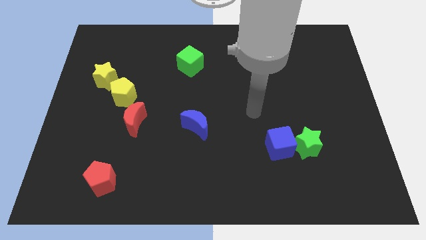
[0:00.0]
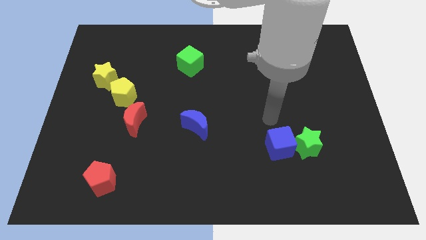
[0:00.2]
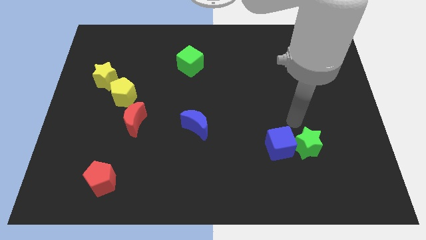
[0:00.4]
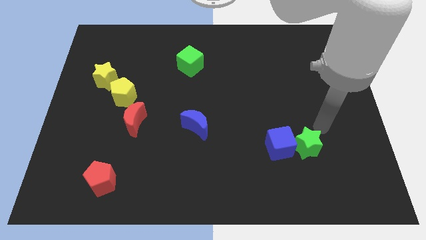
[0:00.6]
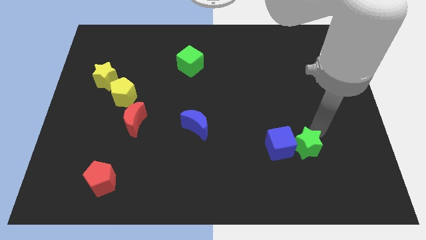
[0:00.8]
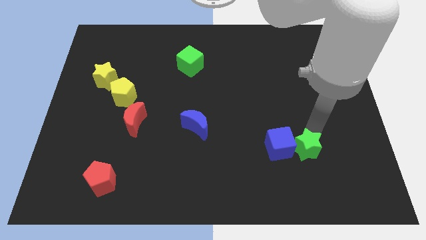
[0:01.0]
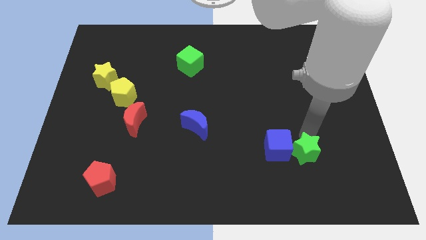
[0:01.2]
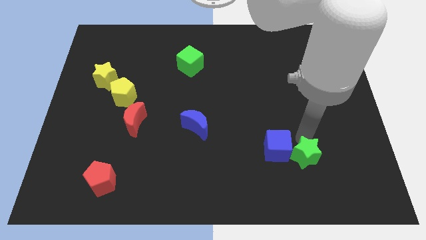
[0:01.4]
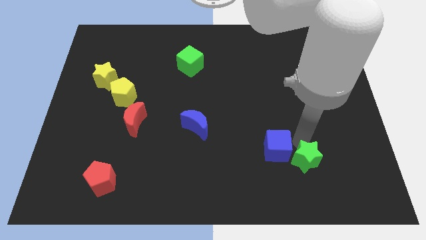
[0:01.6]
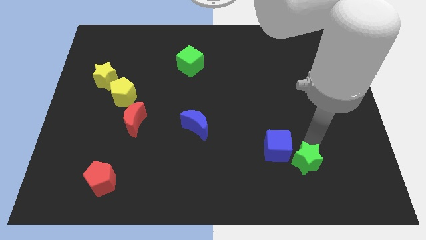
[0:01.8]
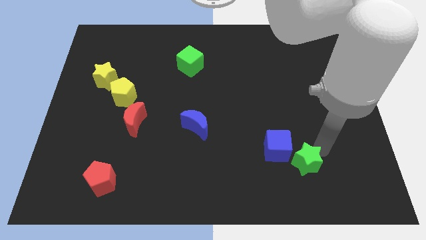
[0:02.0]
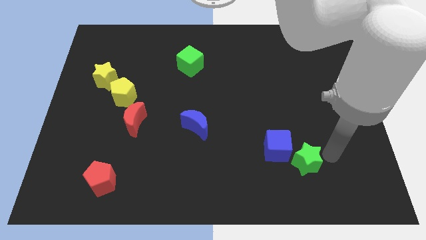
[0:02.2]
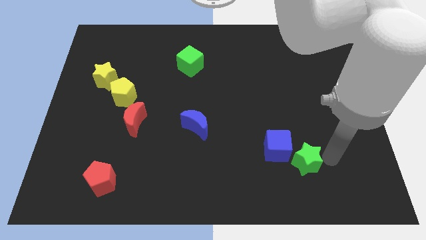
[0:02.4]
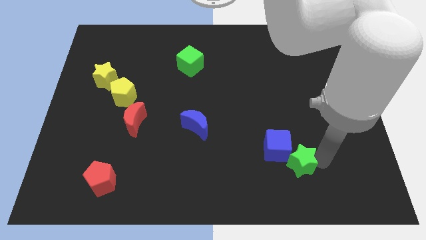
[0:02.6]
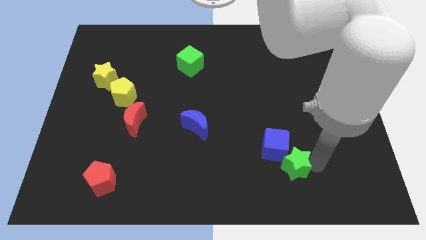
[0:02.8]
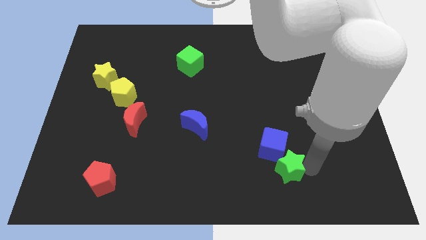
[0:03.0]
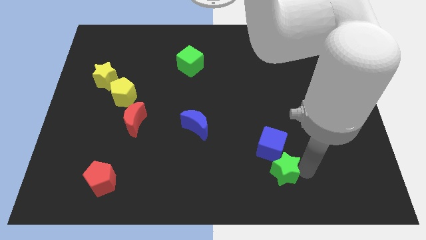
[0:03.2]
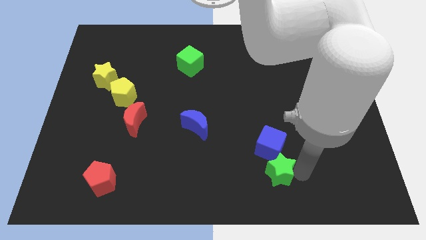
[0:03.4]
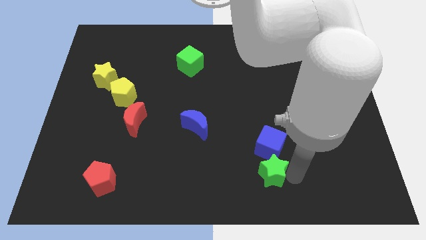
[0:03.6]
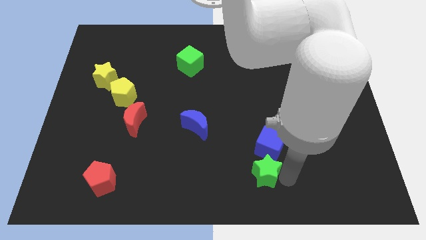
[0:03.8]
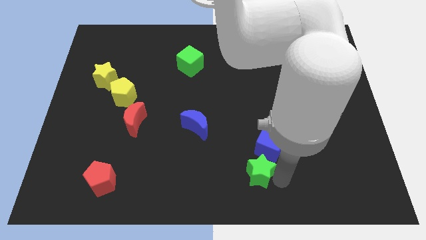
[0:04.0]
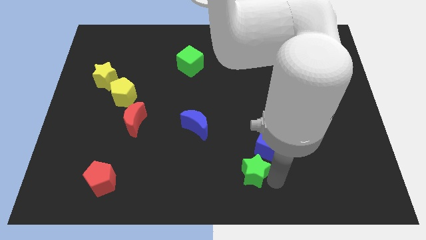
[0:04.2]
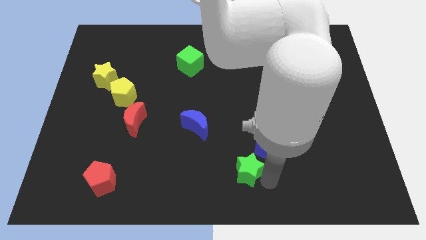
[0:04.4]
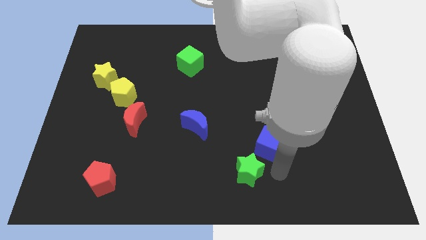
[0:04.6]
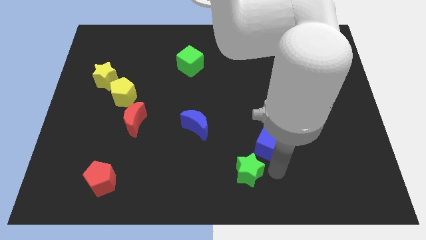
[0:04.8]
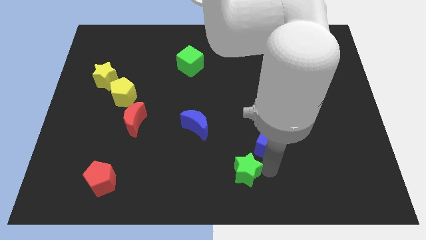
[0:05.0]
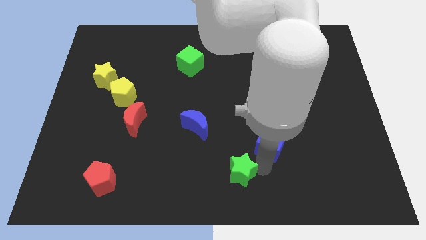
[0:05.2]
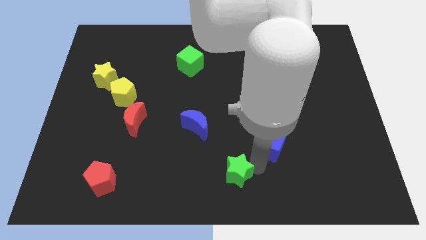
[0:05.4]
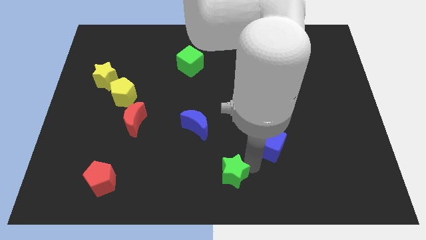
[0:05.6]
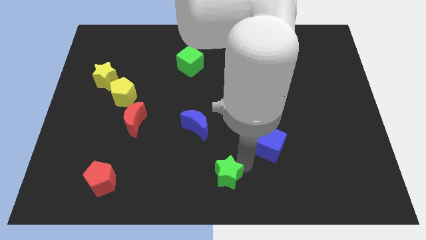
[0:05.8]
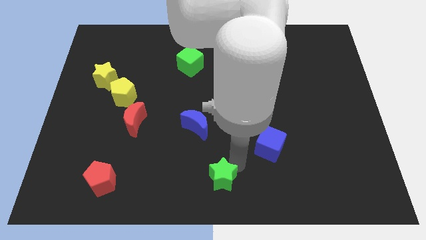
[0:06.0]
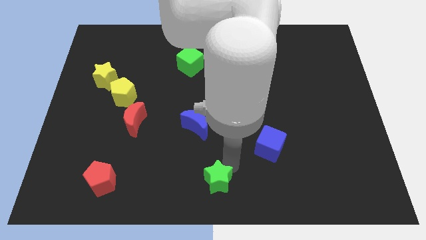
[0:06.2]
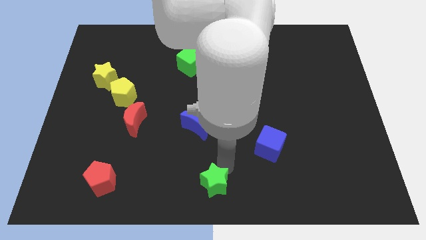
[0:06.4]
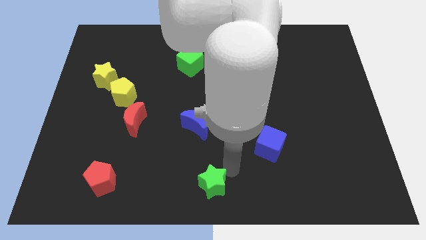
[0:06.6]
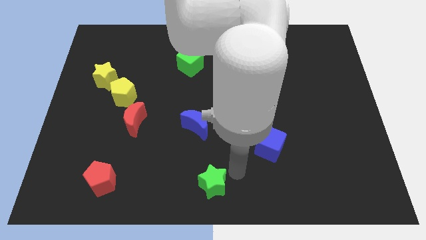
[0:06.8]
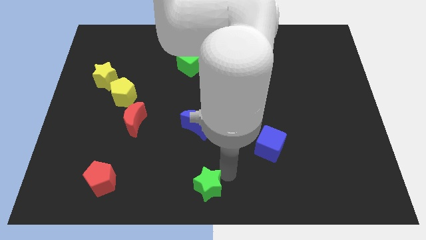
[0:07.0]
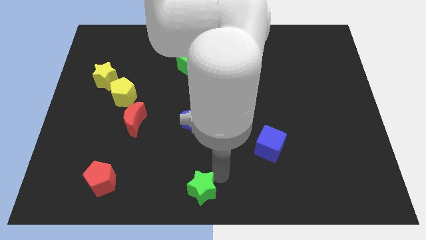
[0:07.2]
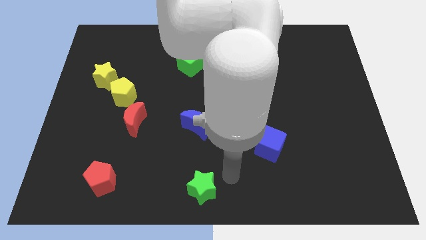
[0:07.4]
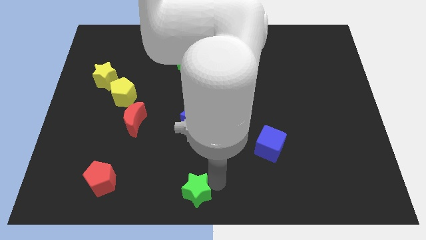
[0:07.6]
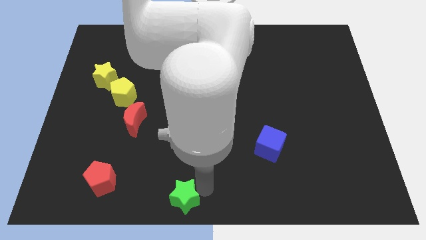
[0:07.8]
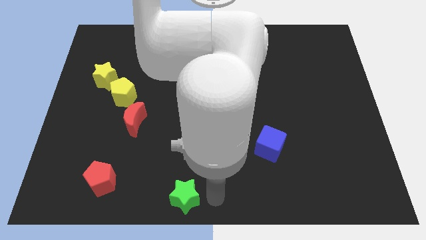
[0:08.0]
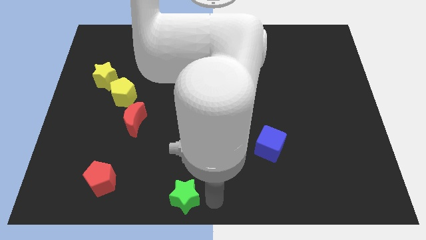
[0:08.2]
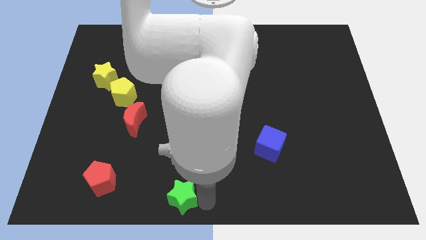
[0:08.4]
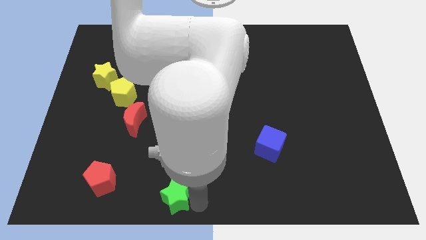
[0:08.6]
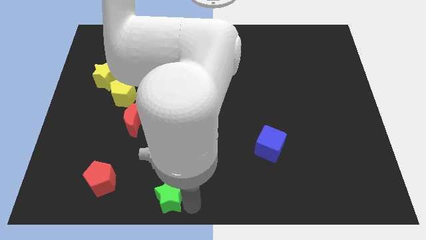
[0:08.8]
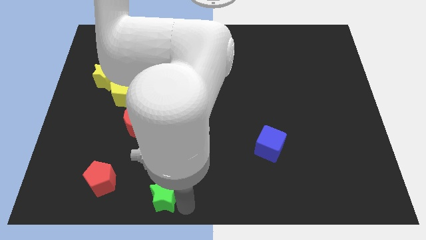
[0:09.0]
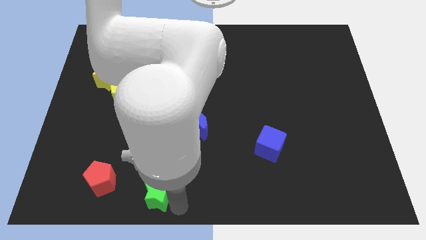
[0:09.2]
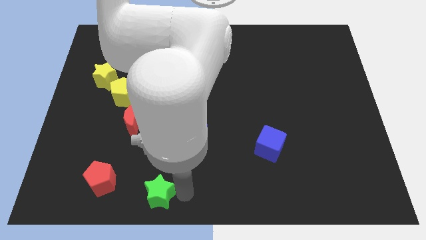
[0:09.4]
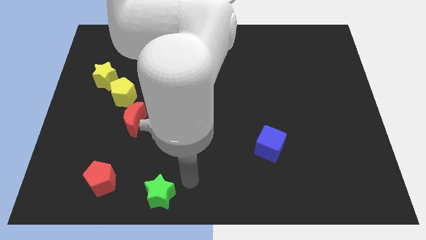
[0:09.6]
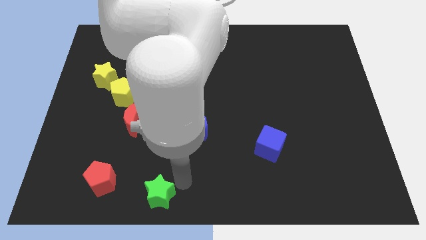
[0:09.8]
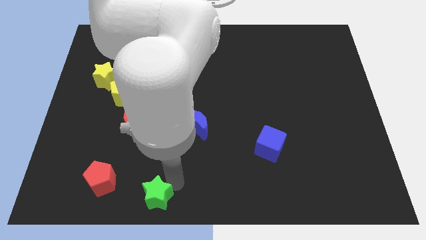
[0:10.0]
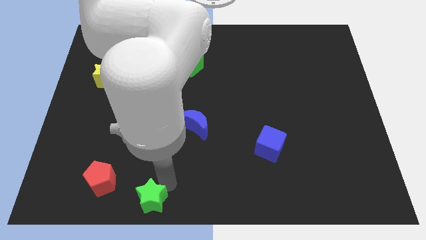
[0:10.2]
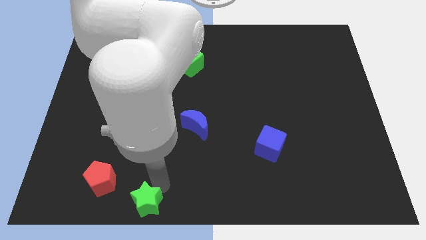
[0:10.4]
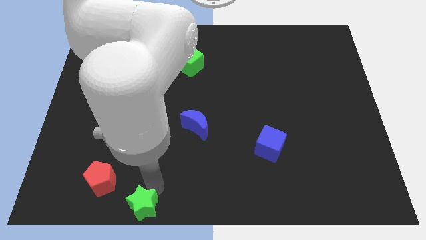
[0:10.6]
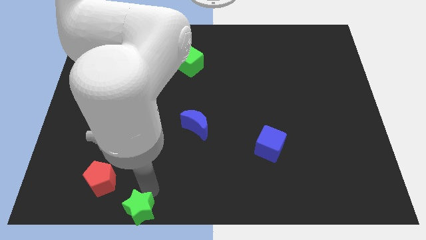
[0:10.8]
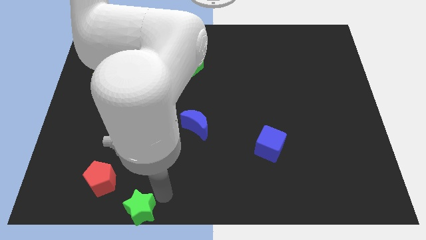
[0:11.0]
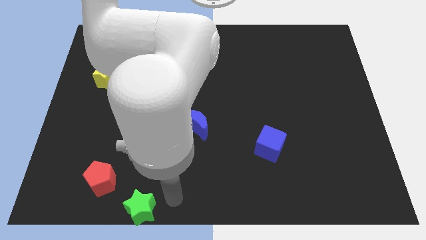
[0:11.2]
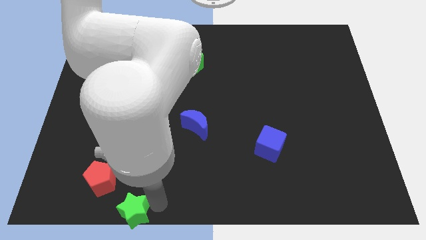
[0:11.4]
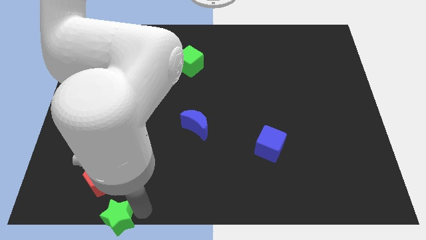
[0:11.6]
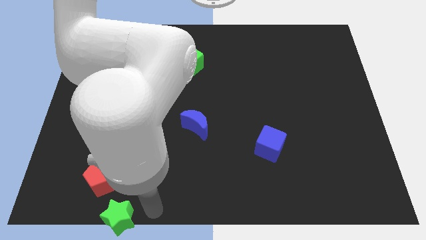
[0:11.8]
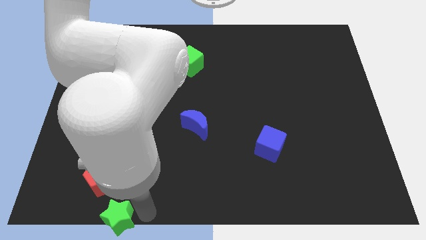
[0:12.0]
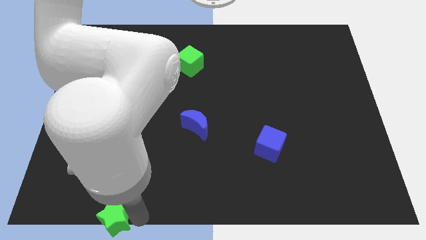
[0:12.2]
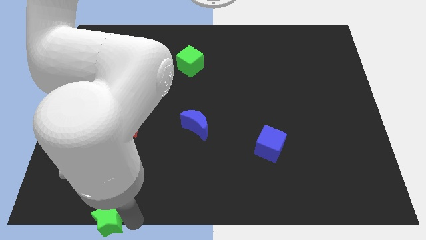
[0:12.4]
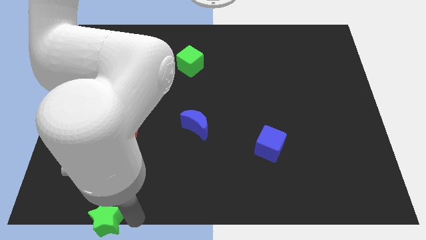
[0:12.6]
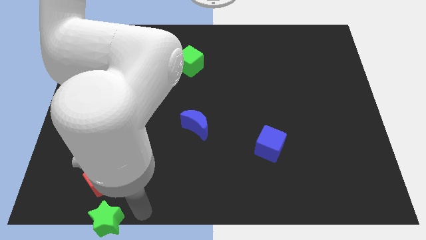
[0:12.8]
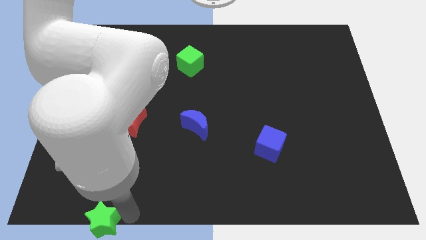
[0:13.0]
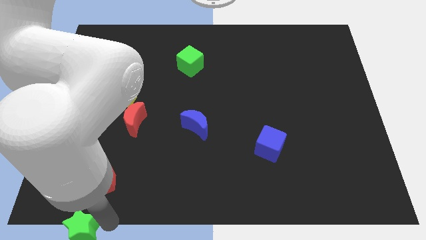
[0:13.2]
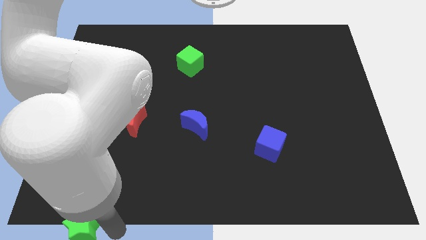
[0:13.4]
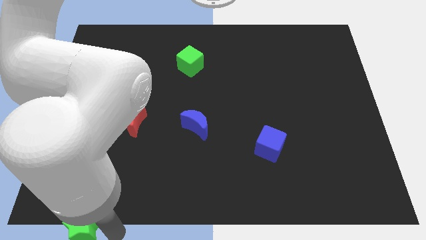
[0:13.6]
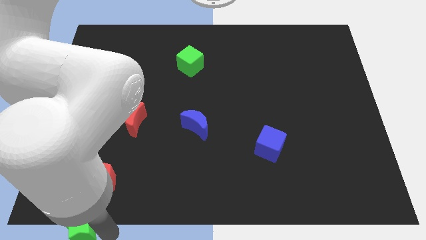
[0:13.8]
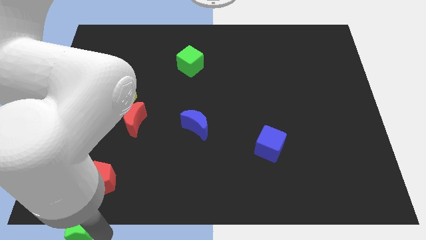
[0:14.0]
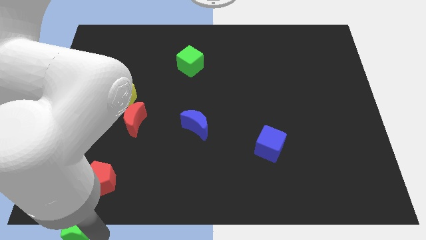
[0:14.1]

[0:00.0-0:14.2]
slide the green star to the bottom left of the board

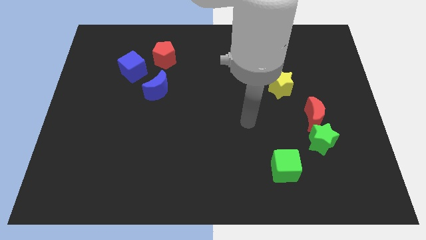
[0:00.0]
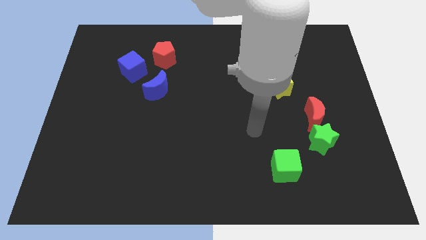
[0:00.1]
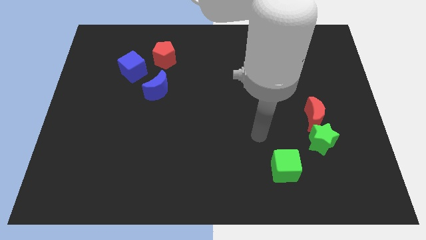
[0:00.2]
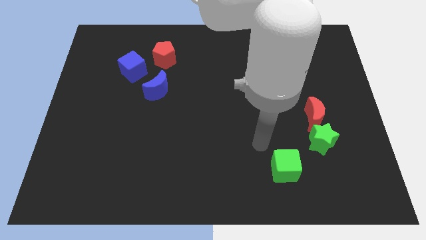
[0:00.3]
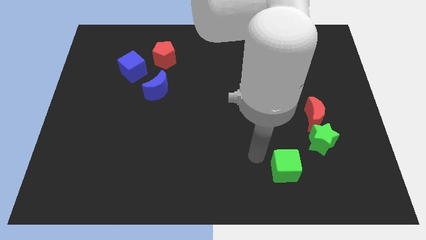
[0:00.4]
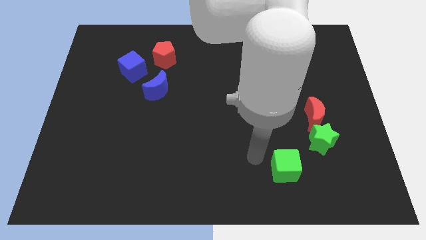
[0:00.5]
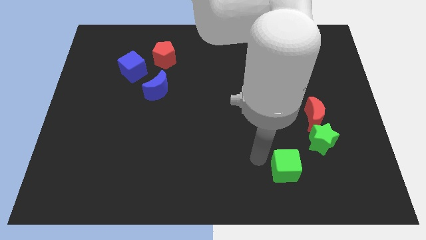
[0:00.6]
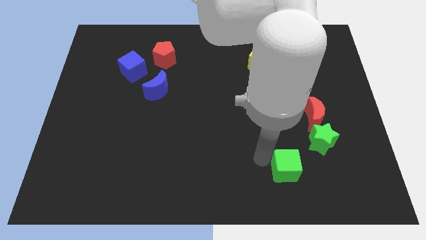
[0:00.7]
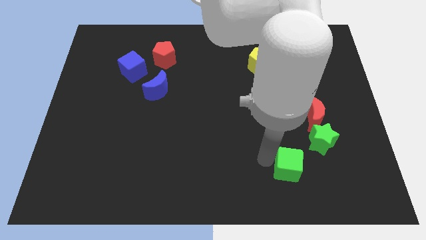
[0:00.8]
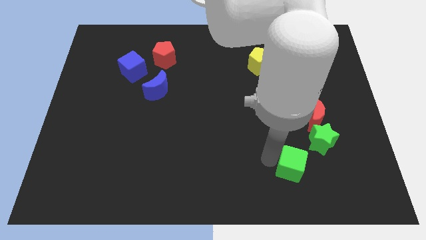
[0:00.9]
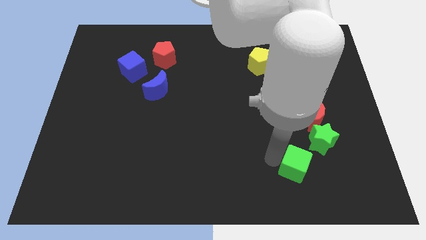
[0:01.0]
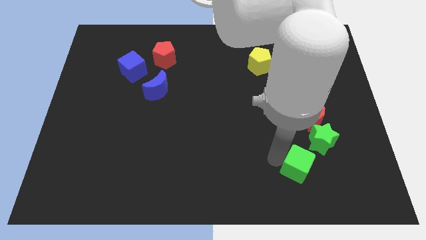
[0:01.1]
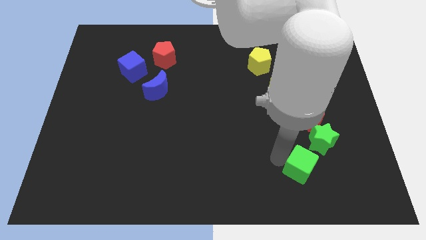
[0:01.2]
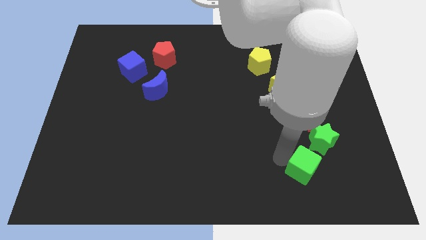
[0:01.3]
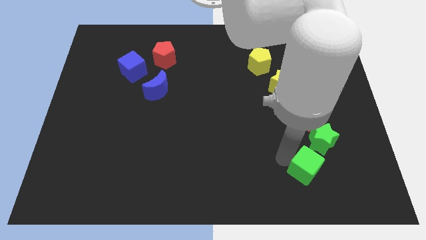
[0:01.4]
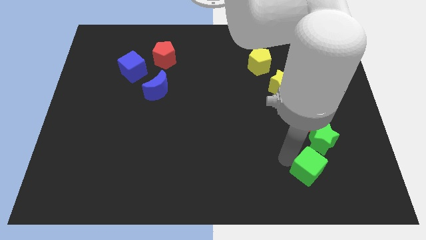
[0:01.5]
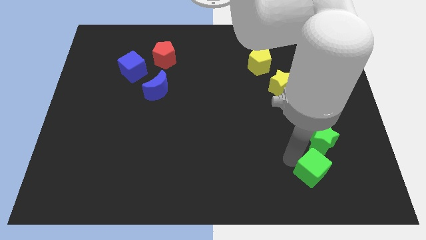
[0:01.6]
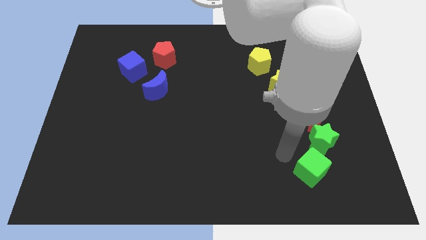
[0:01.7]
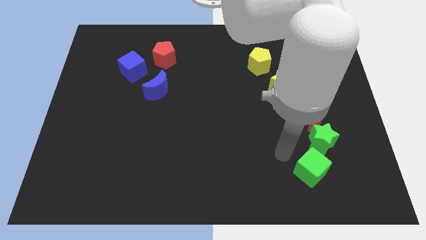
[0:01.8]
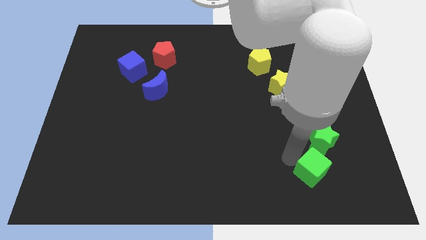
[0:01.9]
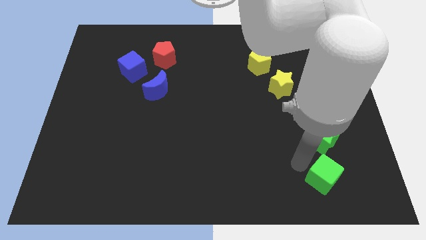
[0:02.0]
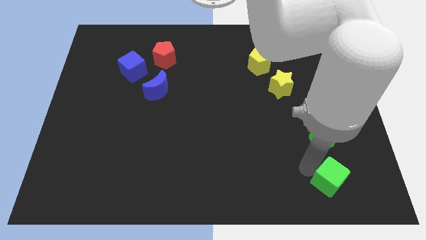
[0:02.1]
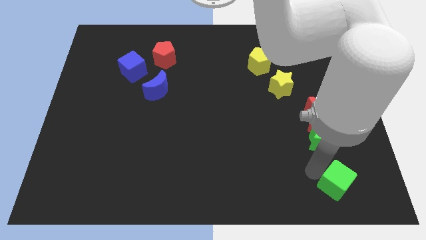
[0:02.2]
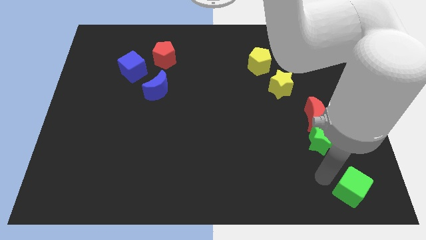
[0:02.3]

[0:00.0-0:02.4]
push the green cube to the lower right corner
